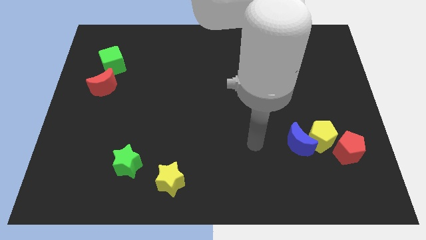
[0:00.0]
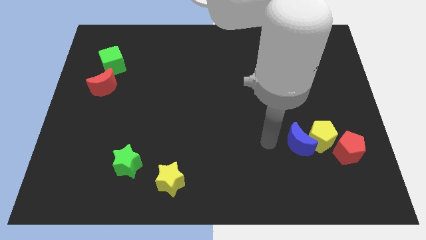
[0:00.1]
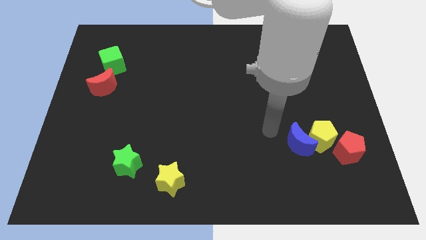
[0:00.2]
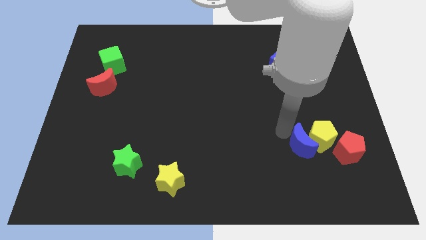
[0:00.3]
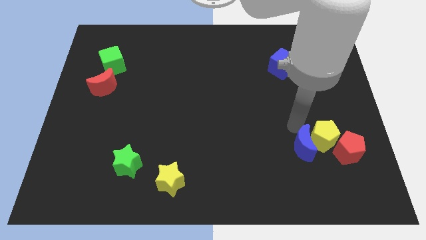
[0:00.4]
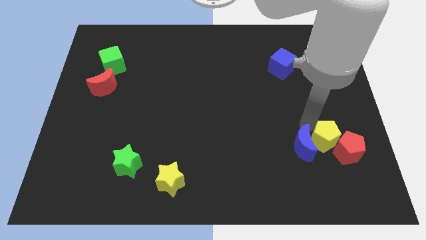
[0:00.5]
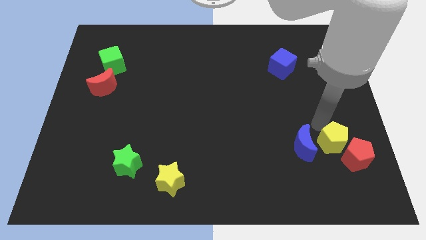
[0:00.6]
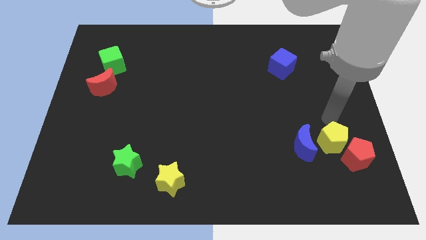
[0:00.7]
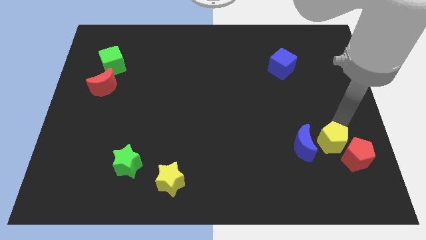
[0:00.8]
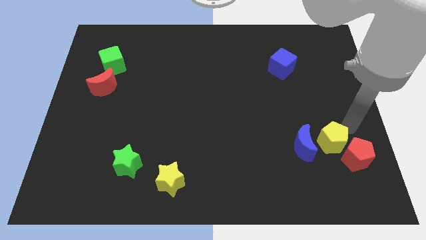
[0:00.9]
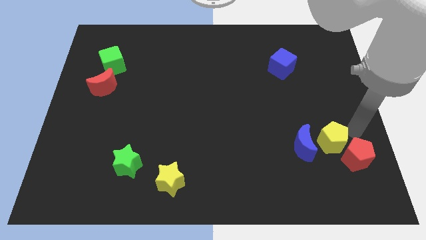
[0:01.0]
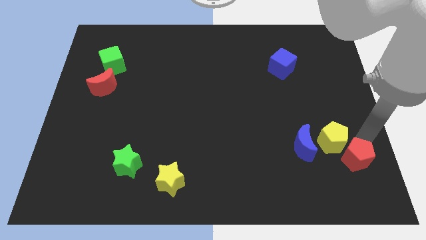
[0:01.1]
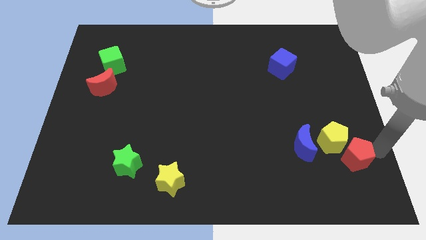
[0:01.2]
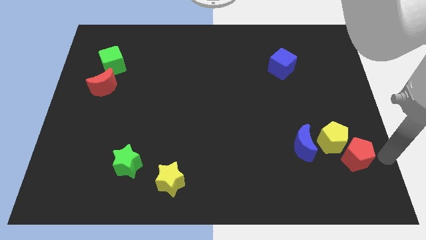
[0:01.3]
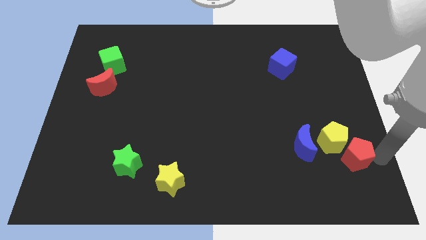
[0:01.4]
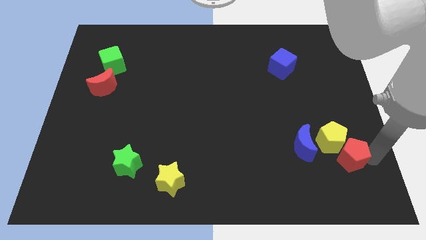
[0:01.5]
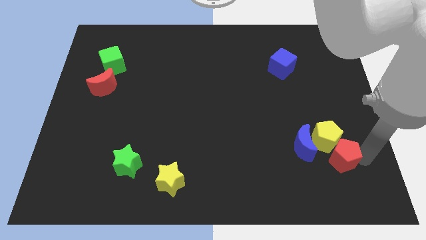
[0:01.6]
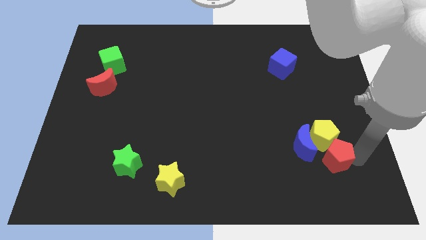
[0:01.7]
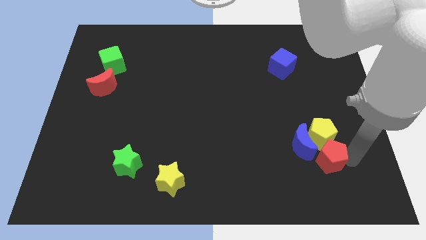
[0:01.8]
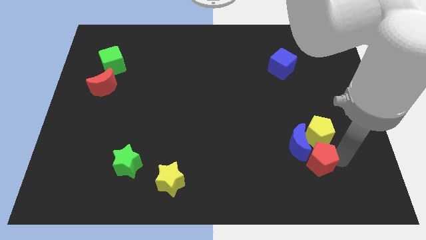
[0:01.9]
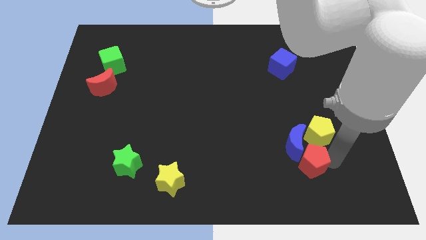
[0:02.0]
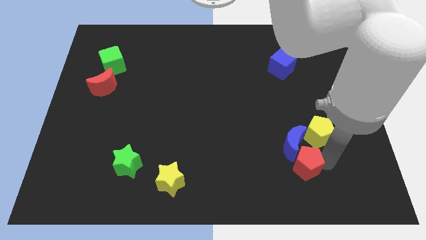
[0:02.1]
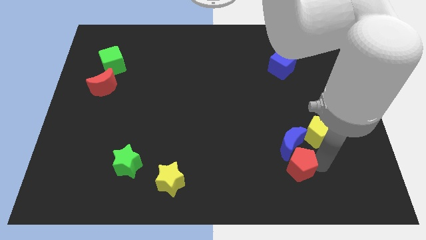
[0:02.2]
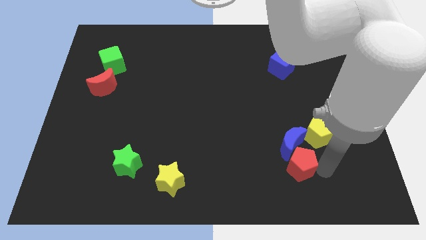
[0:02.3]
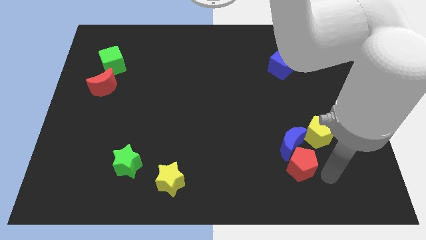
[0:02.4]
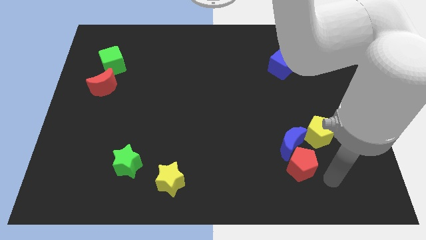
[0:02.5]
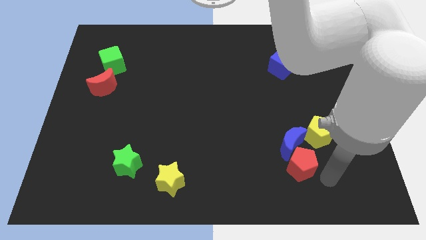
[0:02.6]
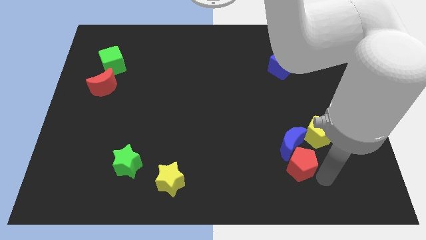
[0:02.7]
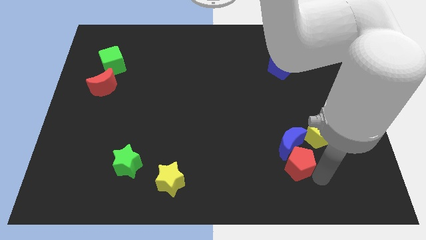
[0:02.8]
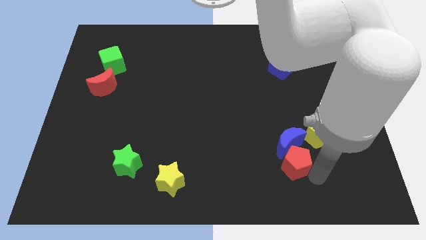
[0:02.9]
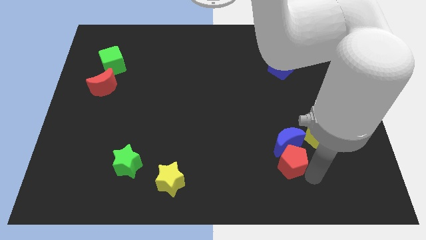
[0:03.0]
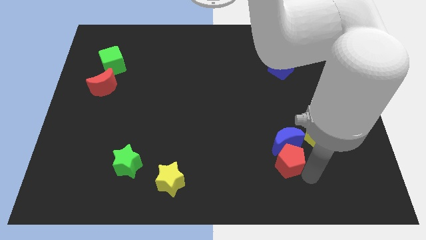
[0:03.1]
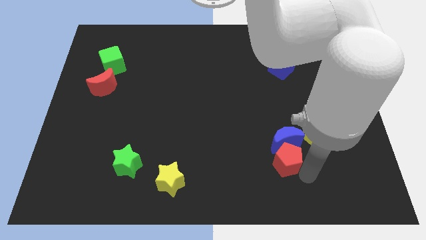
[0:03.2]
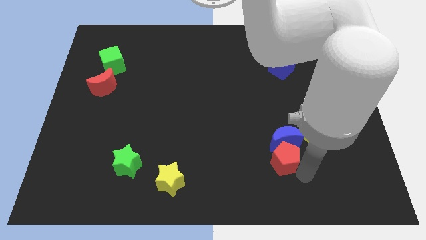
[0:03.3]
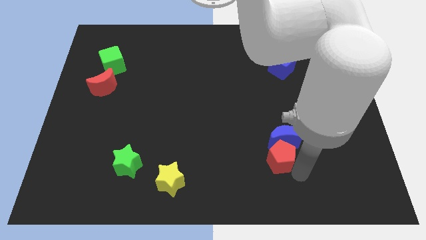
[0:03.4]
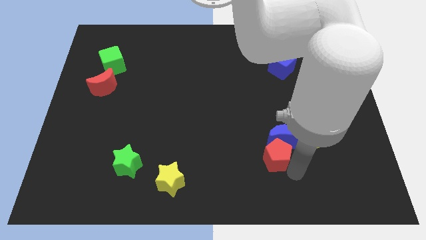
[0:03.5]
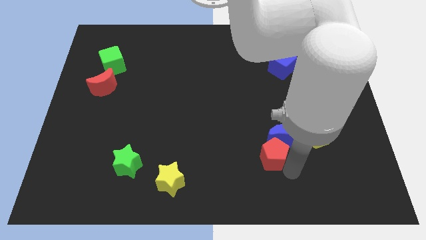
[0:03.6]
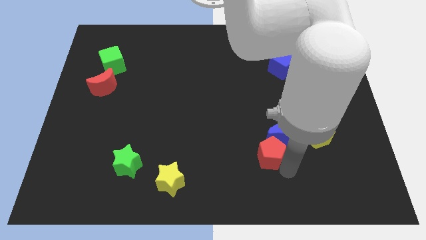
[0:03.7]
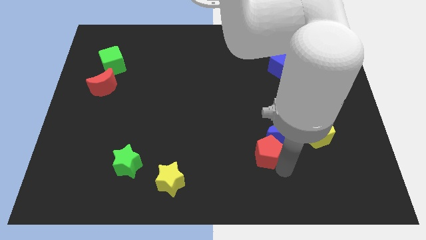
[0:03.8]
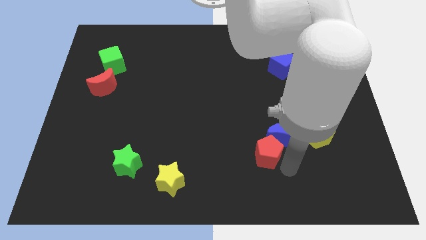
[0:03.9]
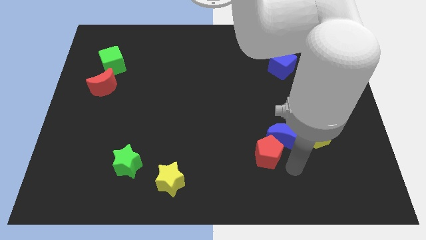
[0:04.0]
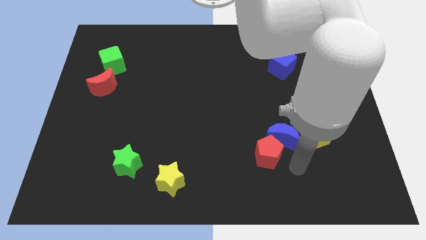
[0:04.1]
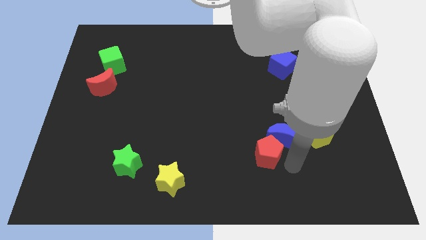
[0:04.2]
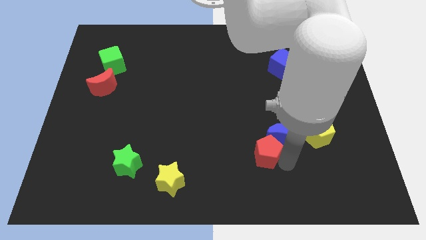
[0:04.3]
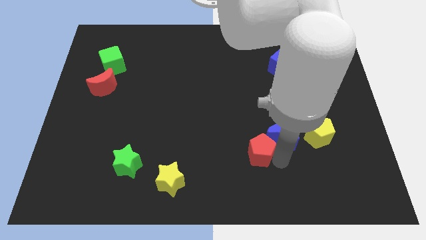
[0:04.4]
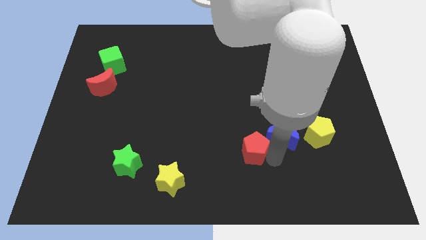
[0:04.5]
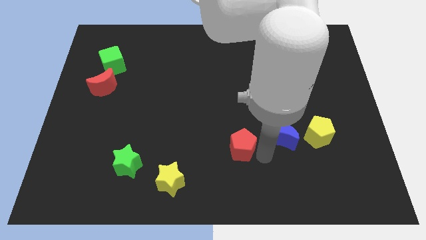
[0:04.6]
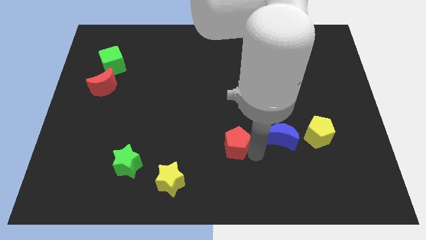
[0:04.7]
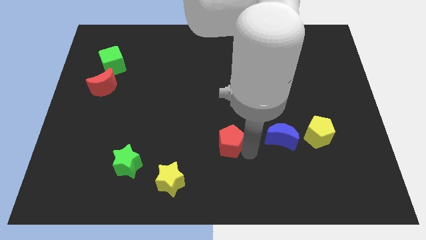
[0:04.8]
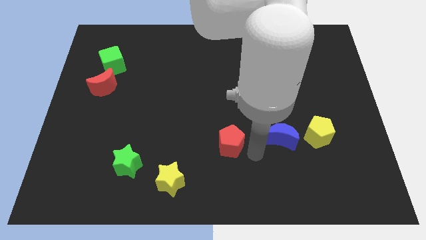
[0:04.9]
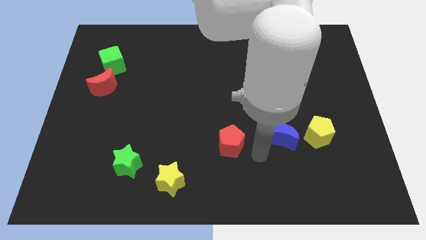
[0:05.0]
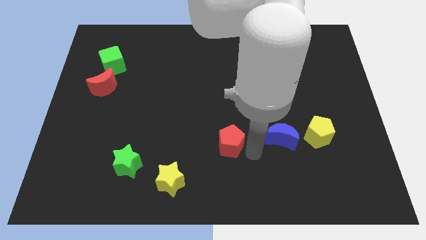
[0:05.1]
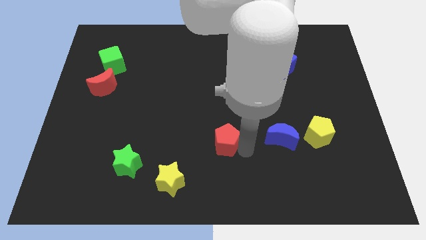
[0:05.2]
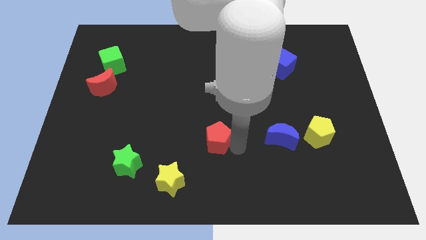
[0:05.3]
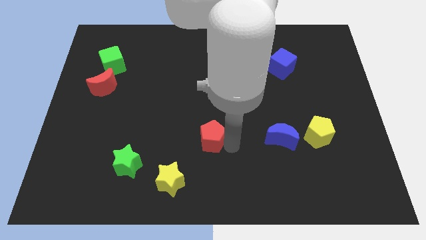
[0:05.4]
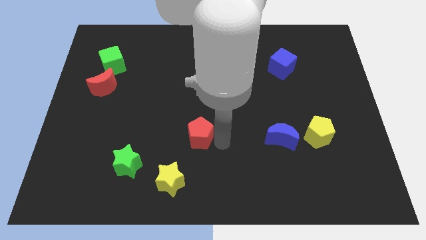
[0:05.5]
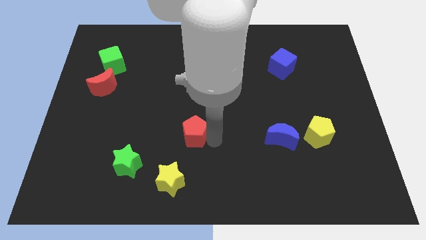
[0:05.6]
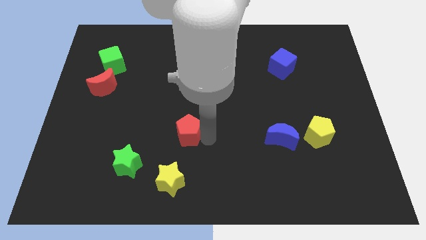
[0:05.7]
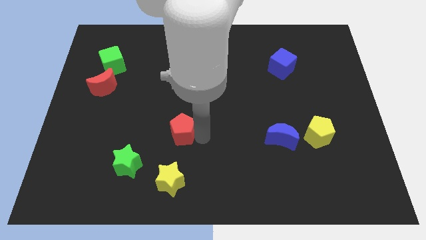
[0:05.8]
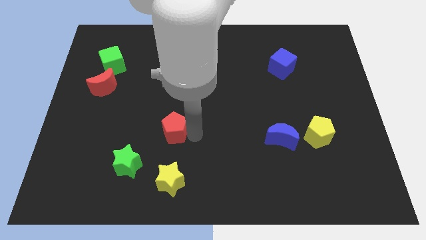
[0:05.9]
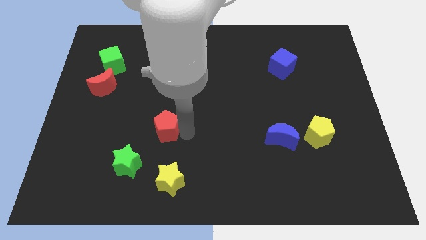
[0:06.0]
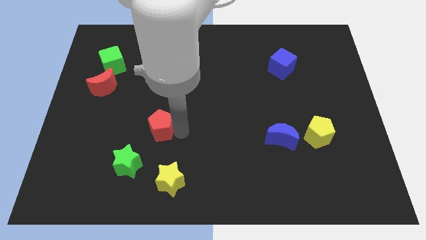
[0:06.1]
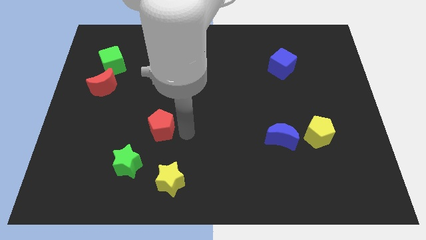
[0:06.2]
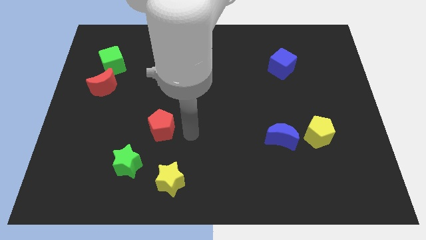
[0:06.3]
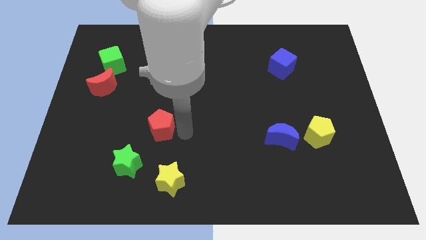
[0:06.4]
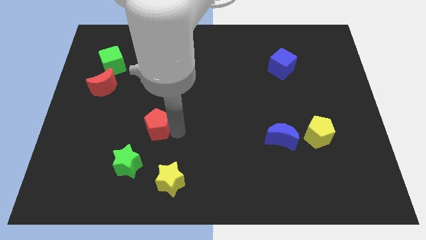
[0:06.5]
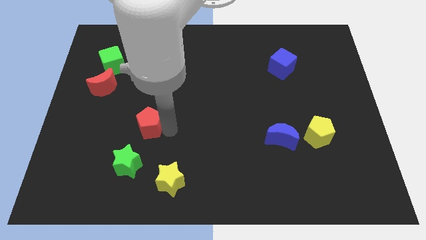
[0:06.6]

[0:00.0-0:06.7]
push the red pentagon to the top side of the green star

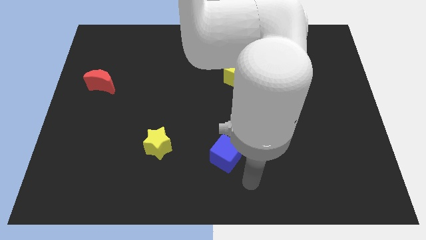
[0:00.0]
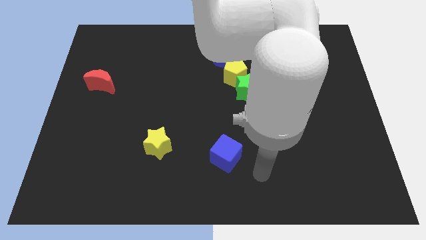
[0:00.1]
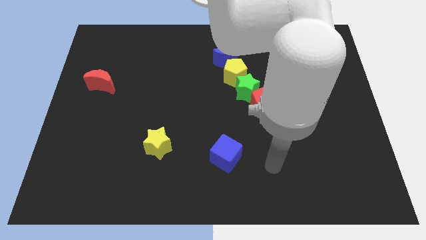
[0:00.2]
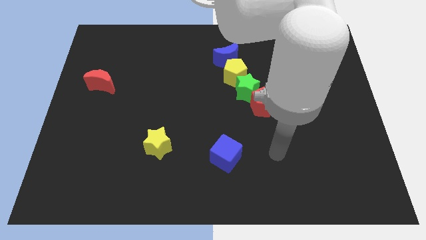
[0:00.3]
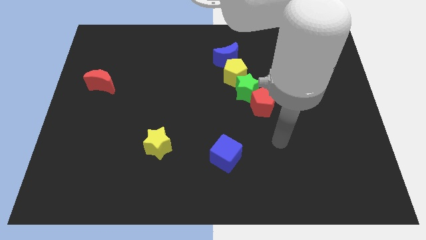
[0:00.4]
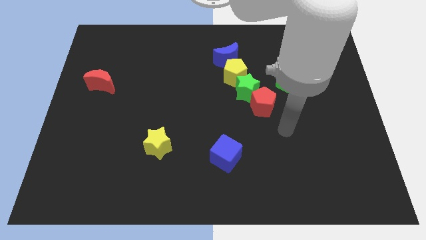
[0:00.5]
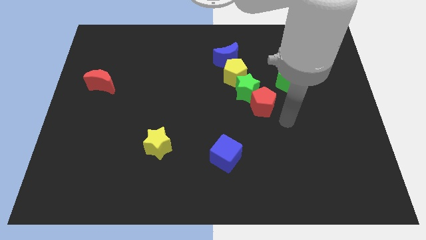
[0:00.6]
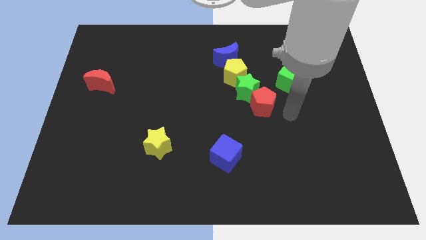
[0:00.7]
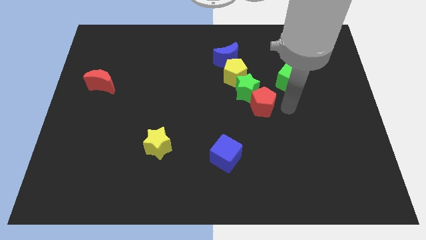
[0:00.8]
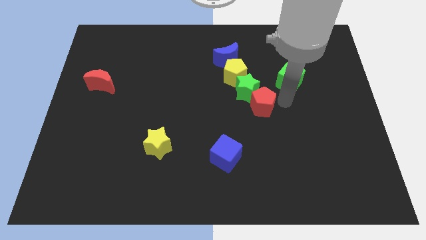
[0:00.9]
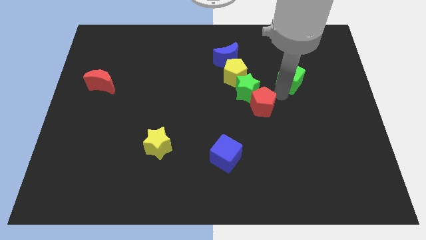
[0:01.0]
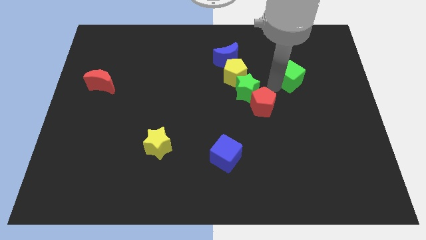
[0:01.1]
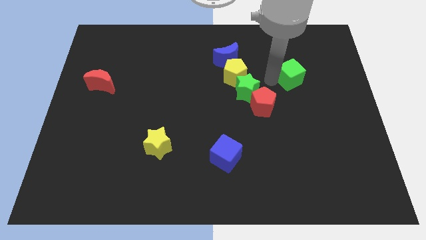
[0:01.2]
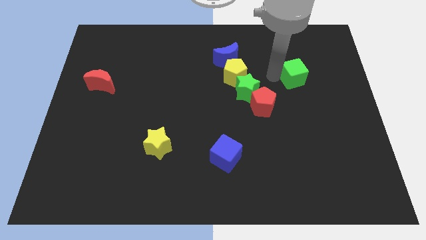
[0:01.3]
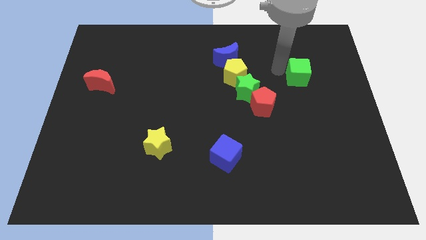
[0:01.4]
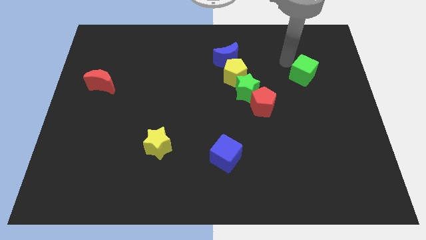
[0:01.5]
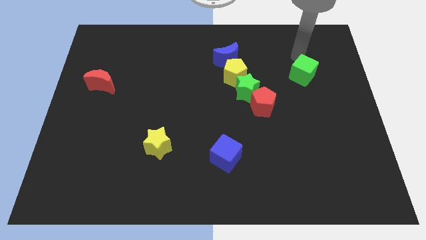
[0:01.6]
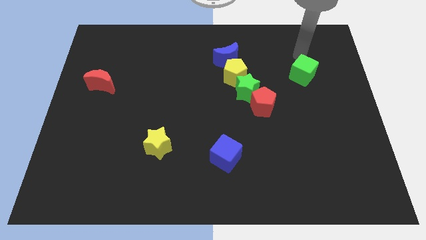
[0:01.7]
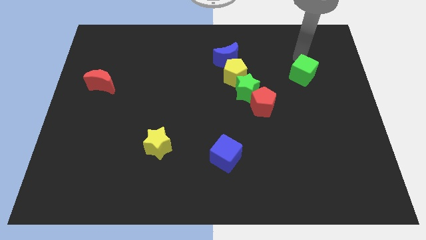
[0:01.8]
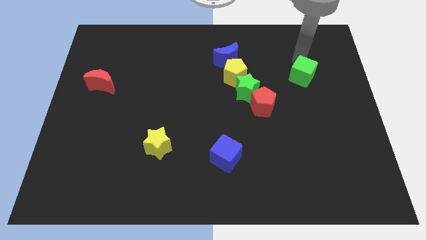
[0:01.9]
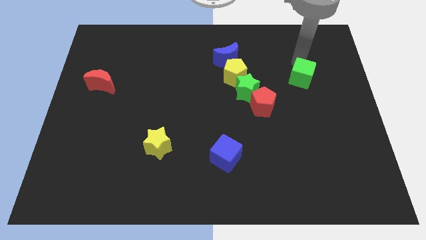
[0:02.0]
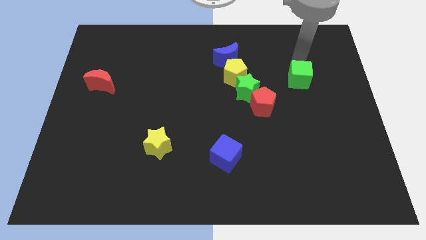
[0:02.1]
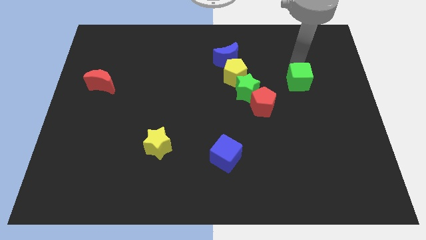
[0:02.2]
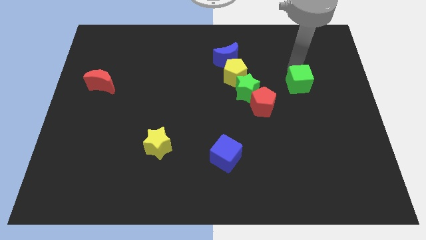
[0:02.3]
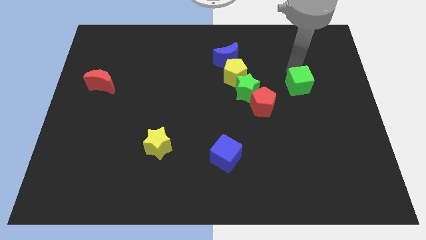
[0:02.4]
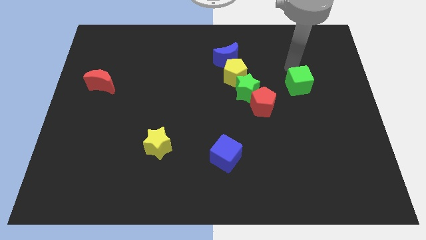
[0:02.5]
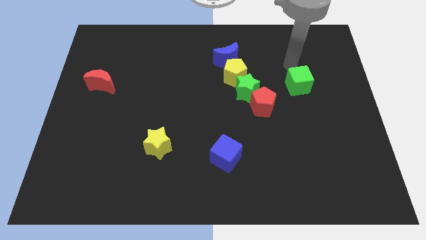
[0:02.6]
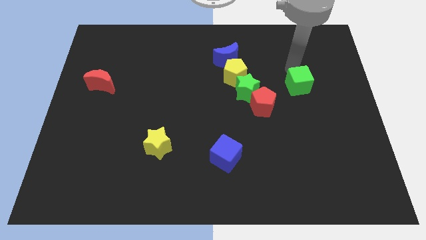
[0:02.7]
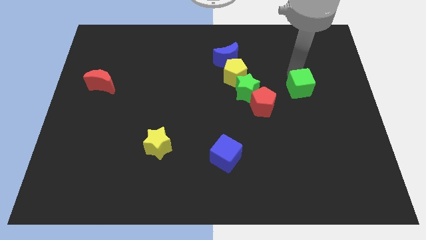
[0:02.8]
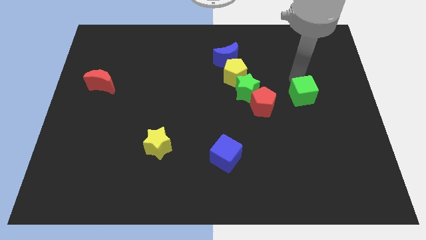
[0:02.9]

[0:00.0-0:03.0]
put the green cube right of the red pentagon
